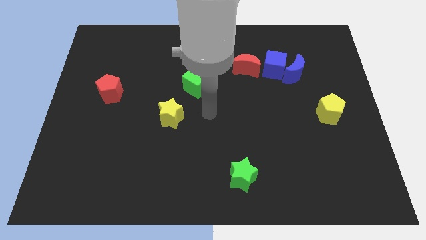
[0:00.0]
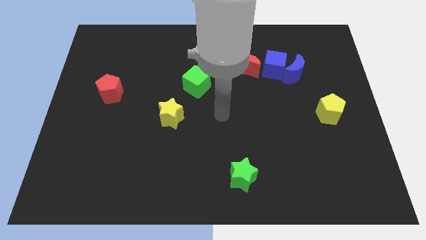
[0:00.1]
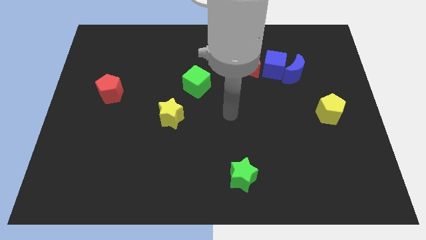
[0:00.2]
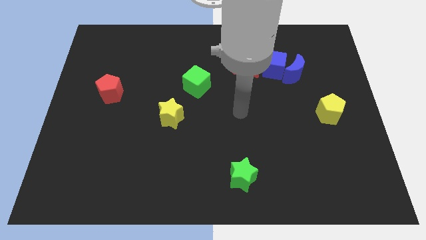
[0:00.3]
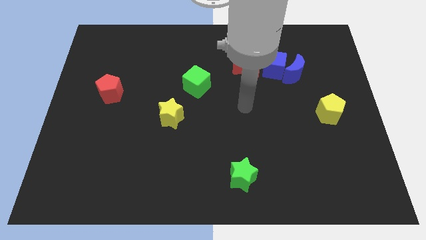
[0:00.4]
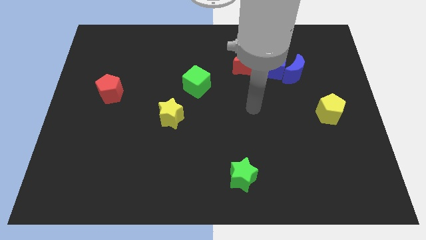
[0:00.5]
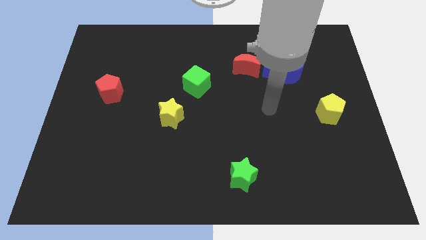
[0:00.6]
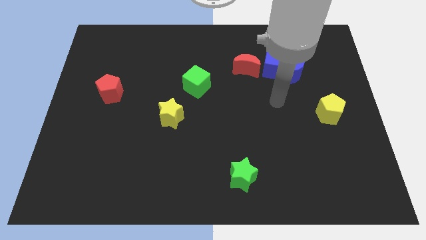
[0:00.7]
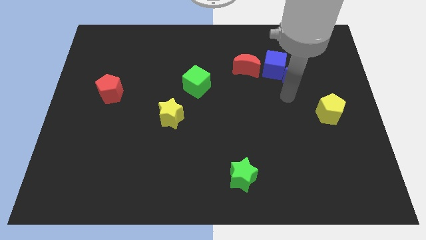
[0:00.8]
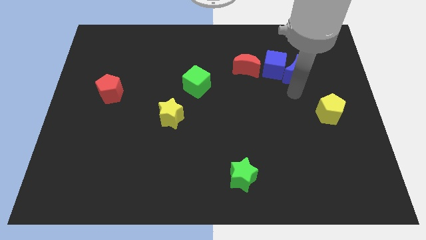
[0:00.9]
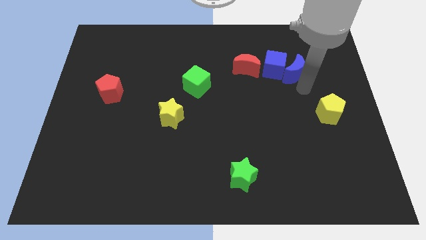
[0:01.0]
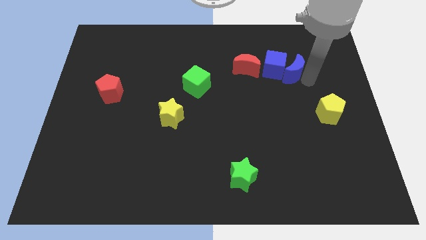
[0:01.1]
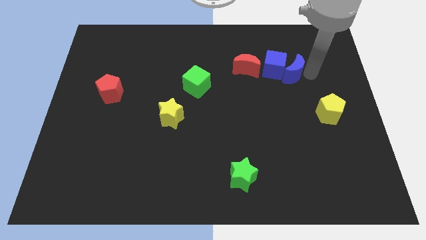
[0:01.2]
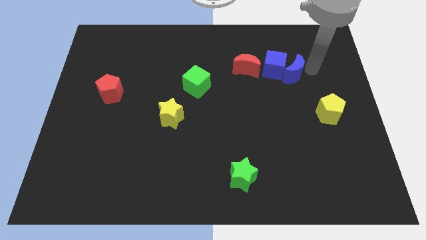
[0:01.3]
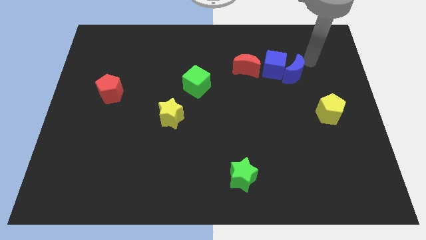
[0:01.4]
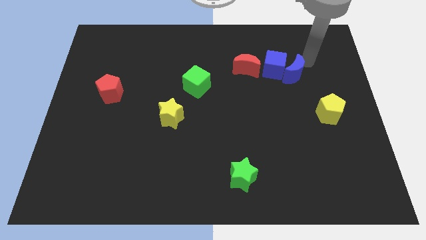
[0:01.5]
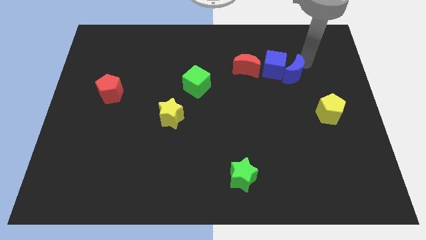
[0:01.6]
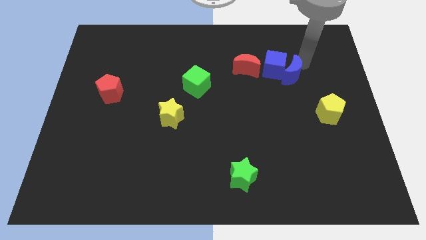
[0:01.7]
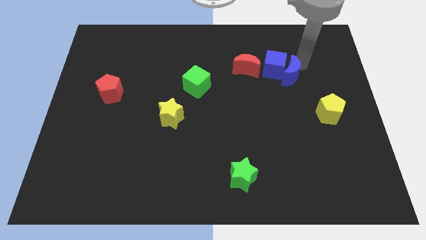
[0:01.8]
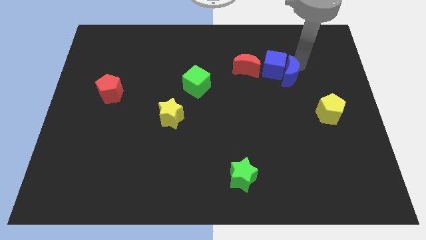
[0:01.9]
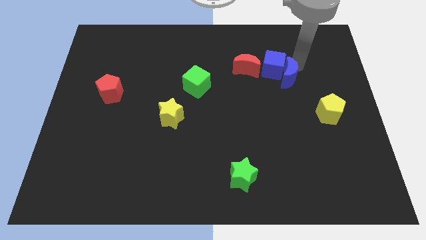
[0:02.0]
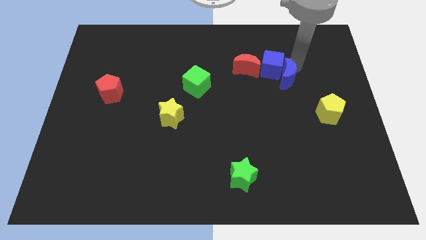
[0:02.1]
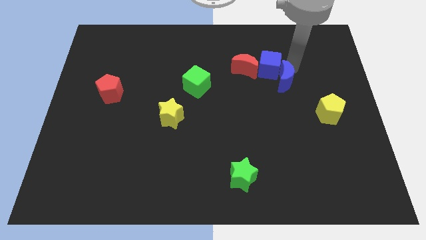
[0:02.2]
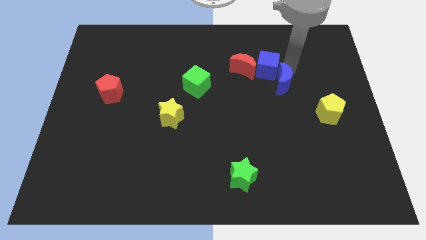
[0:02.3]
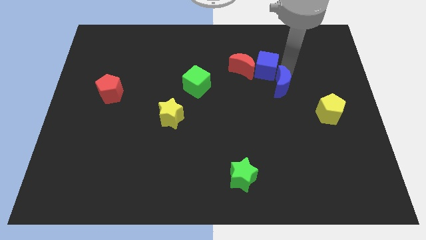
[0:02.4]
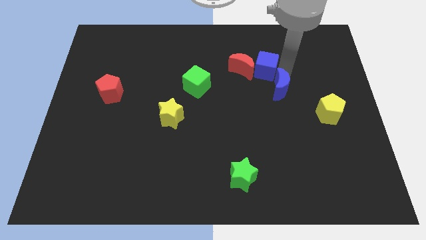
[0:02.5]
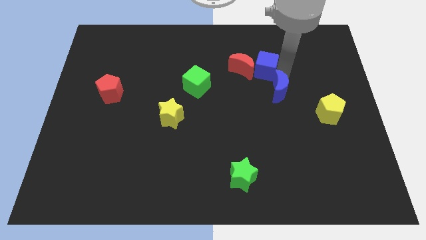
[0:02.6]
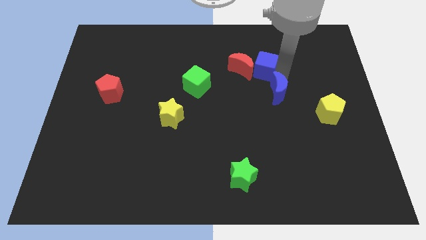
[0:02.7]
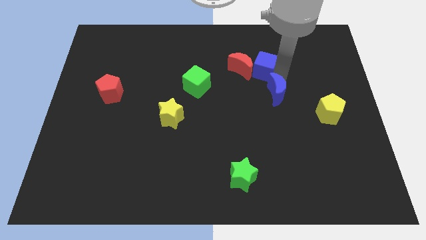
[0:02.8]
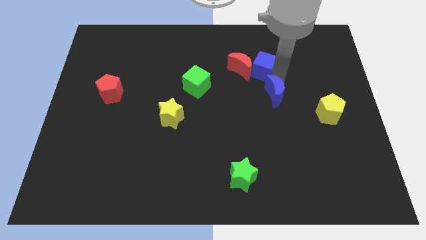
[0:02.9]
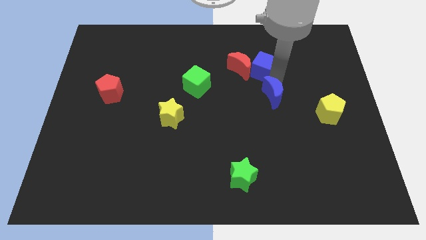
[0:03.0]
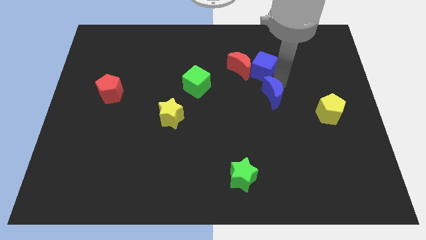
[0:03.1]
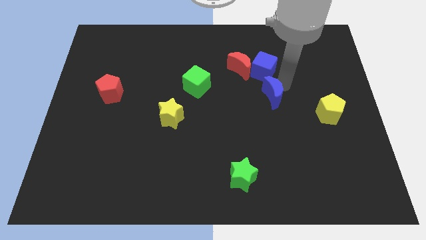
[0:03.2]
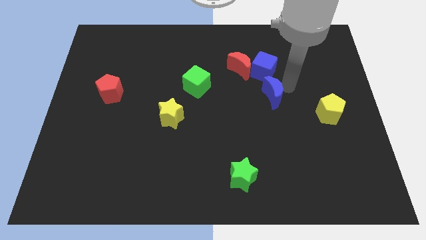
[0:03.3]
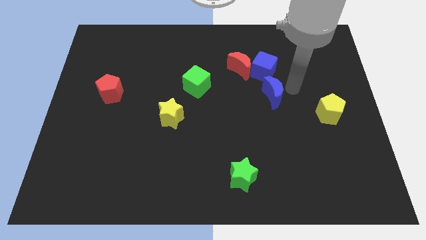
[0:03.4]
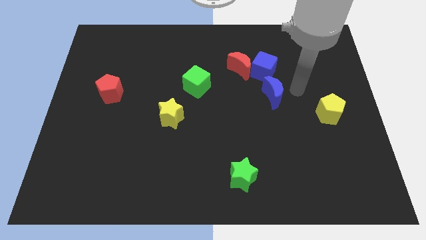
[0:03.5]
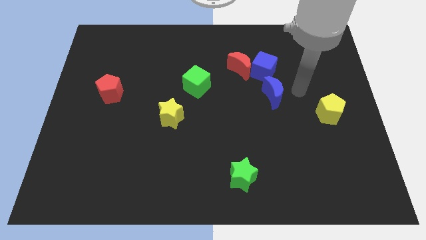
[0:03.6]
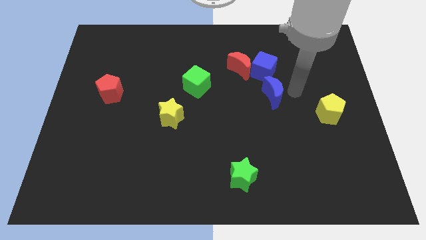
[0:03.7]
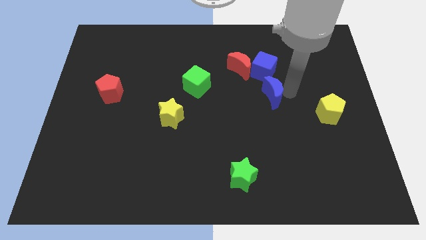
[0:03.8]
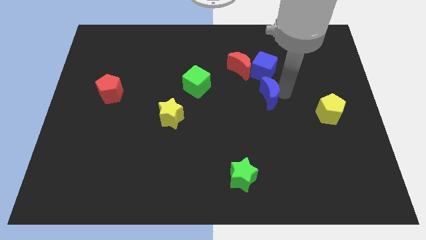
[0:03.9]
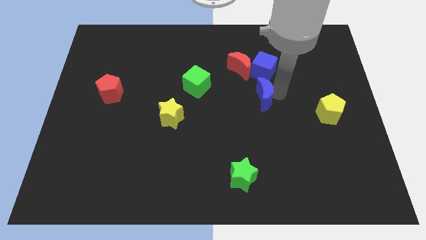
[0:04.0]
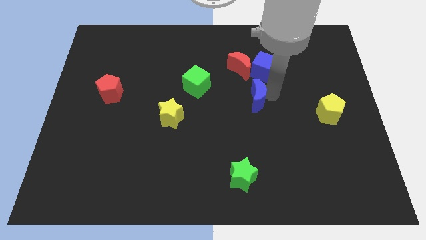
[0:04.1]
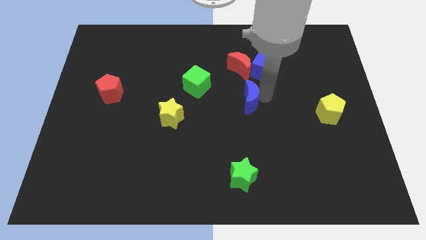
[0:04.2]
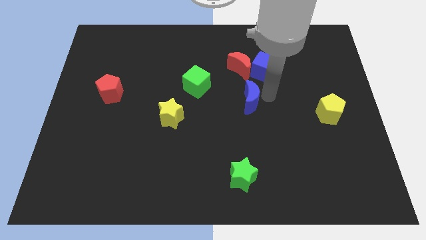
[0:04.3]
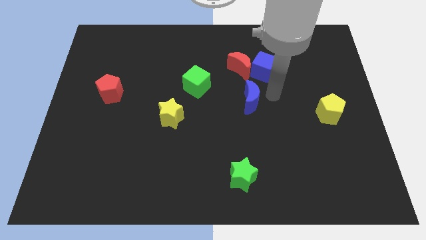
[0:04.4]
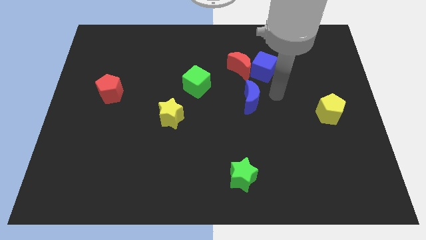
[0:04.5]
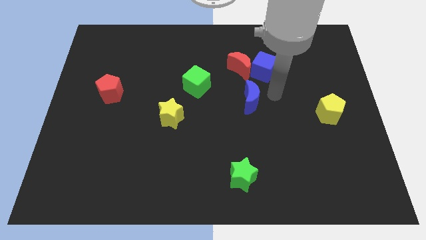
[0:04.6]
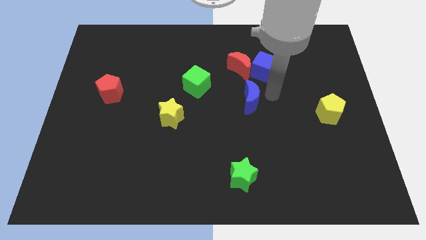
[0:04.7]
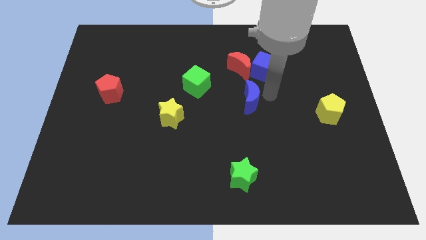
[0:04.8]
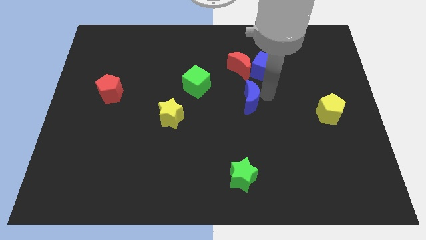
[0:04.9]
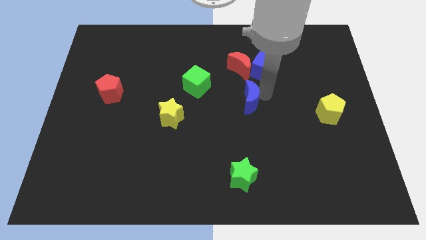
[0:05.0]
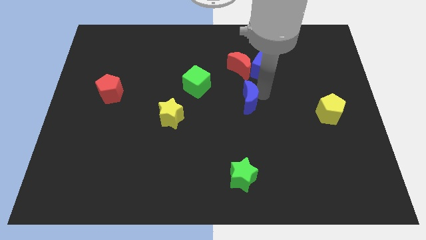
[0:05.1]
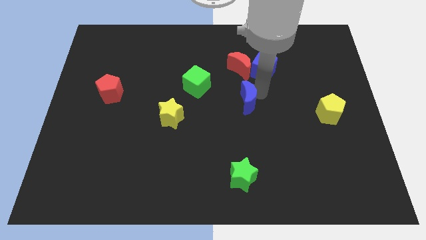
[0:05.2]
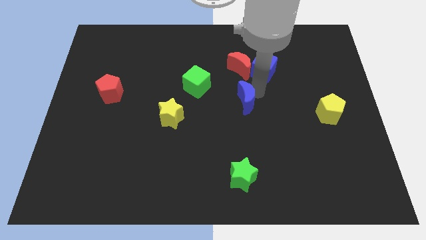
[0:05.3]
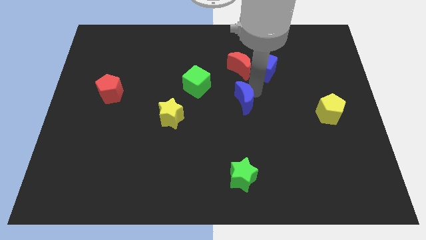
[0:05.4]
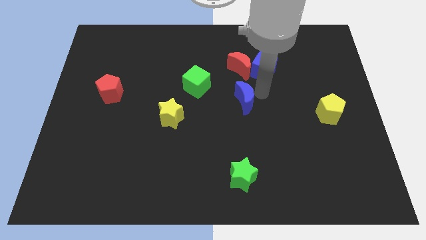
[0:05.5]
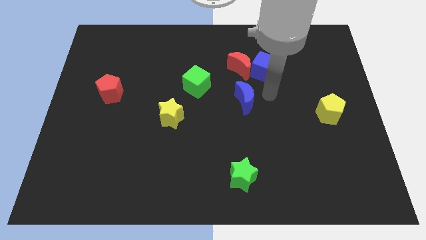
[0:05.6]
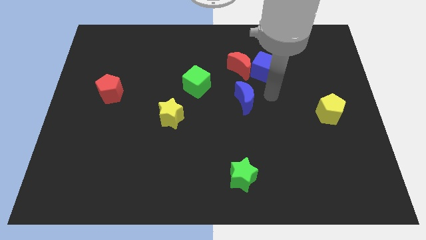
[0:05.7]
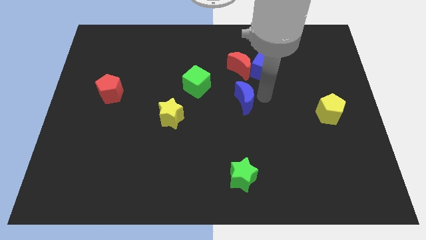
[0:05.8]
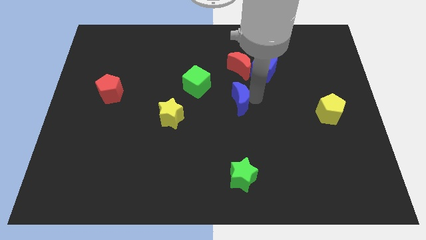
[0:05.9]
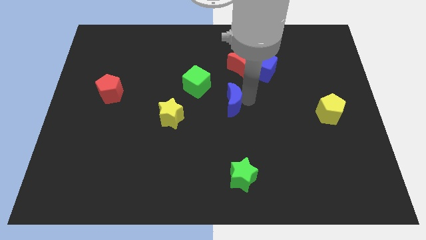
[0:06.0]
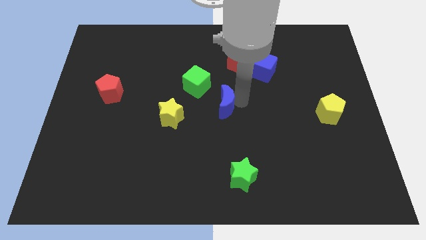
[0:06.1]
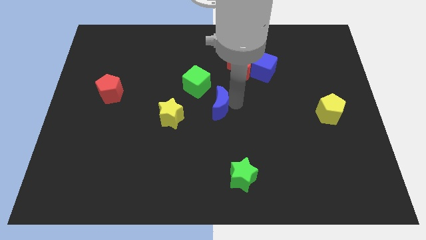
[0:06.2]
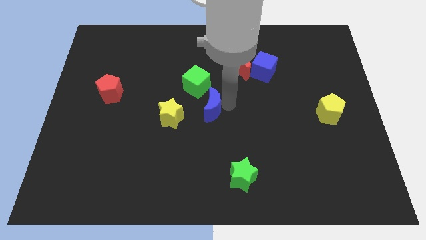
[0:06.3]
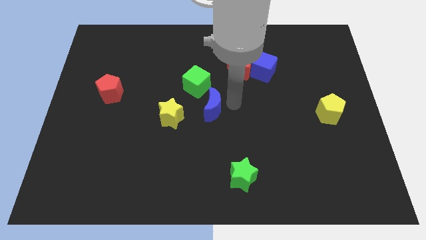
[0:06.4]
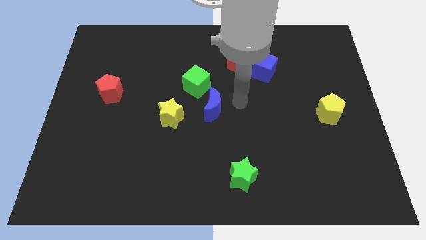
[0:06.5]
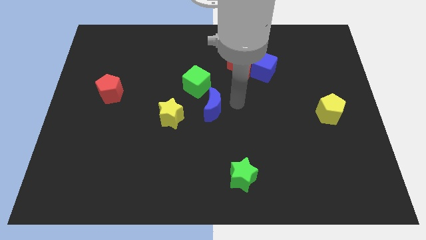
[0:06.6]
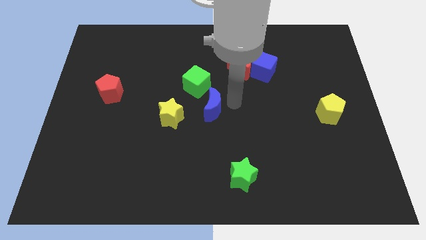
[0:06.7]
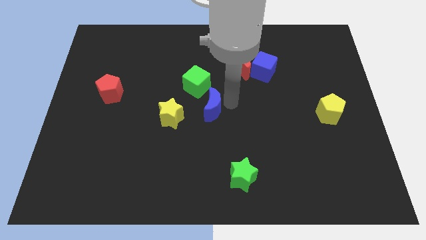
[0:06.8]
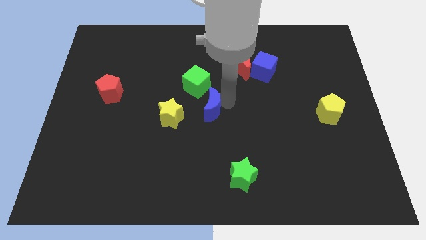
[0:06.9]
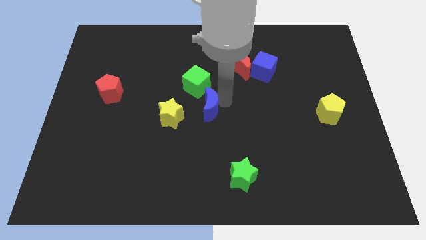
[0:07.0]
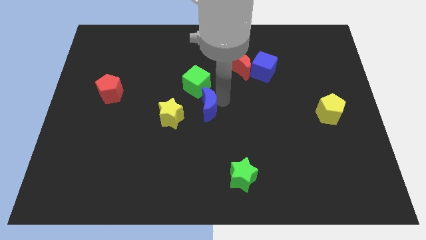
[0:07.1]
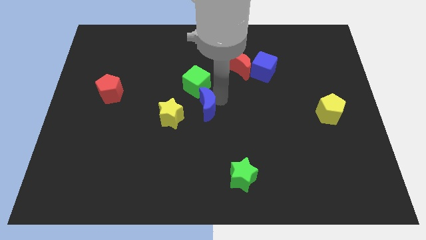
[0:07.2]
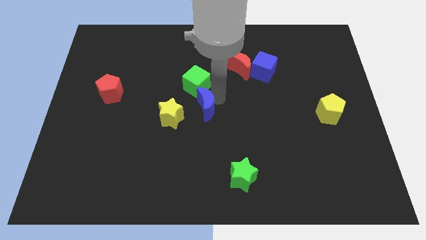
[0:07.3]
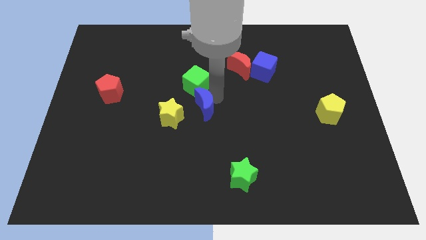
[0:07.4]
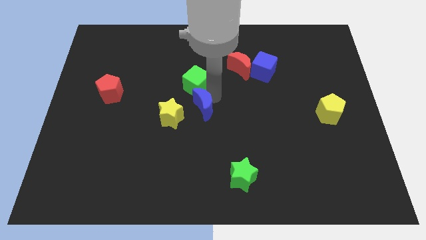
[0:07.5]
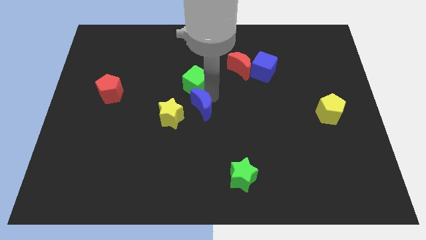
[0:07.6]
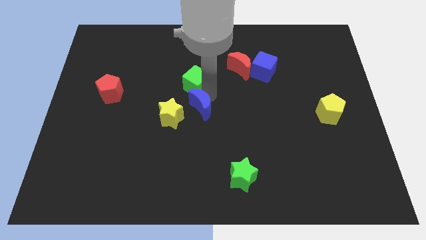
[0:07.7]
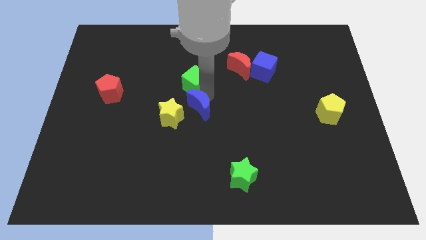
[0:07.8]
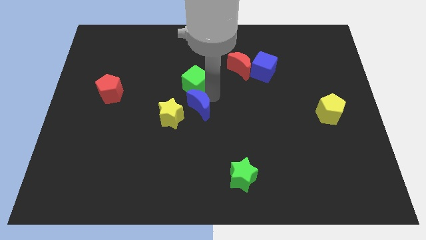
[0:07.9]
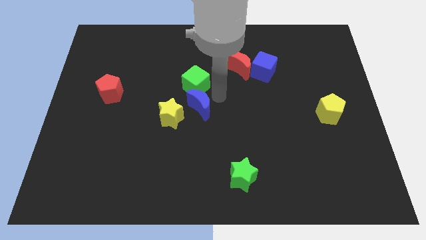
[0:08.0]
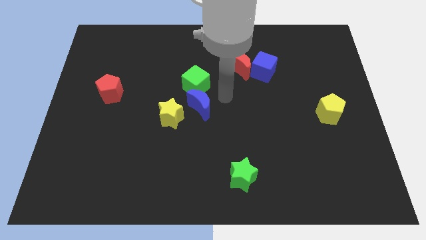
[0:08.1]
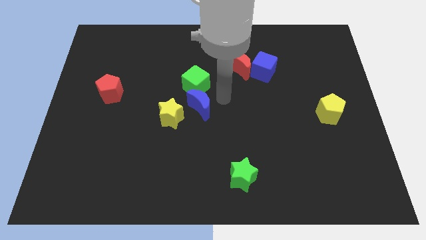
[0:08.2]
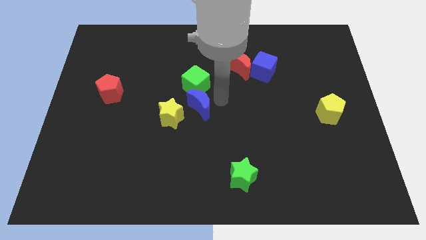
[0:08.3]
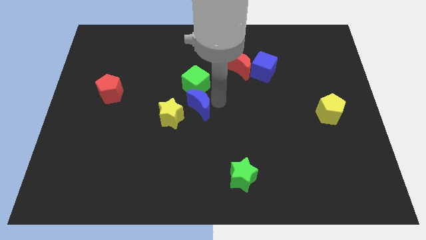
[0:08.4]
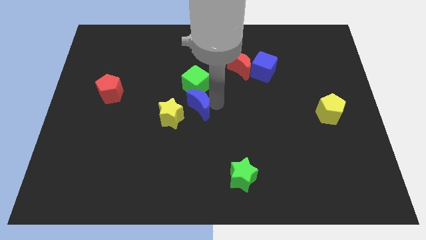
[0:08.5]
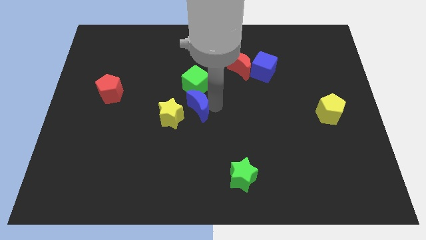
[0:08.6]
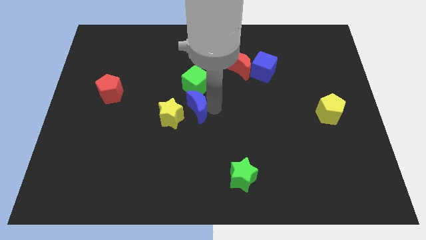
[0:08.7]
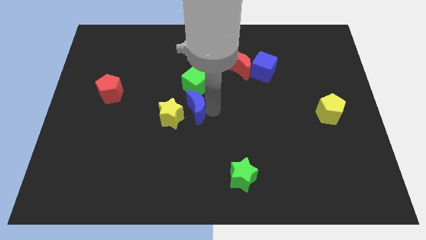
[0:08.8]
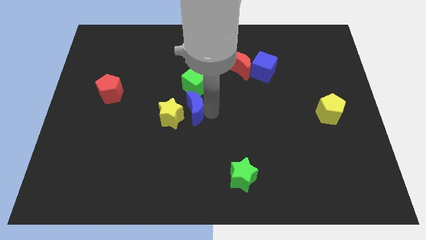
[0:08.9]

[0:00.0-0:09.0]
push the blue moon towards the yellow star
